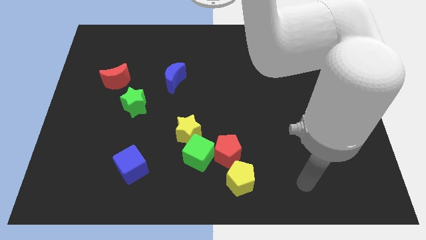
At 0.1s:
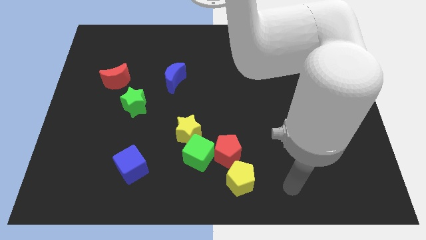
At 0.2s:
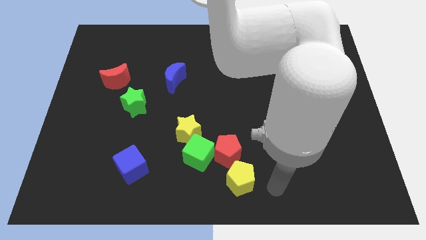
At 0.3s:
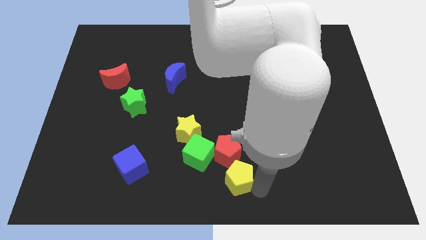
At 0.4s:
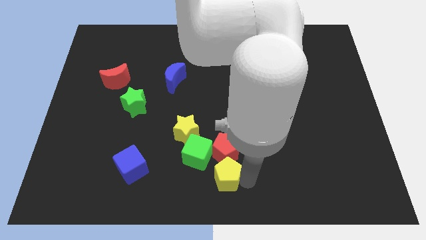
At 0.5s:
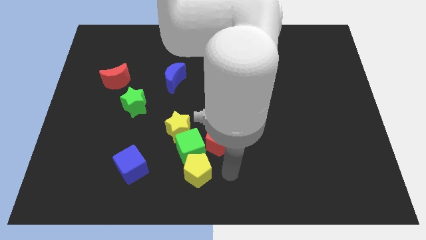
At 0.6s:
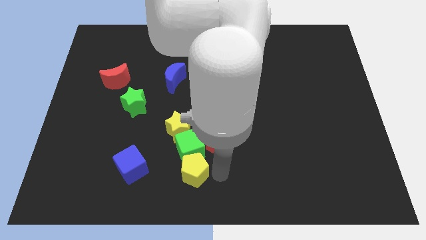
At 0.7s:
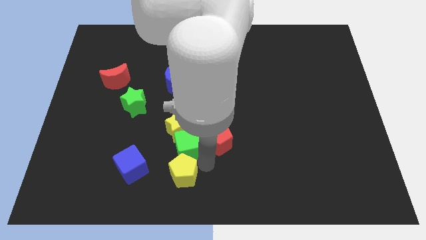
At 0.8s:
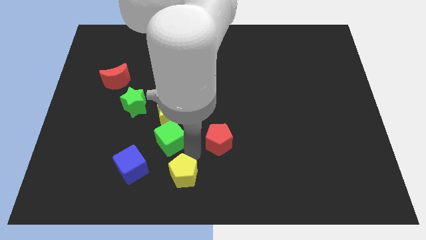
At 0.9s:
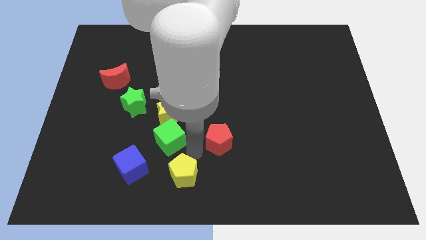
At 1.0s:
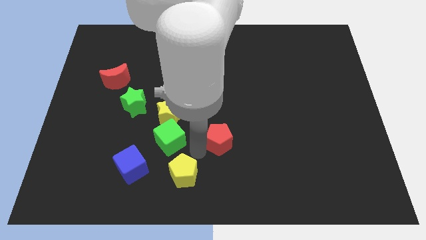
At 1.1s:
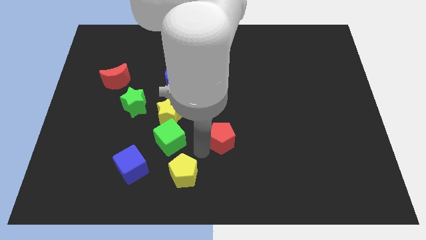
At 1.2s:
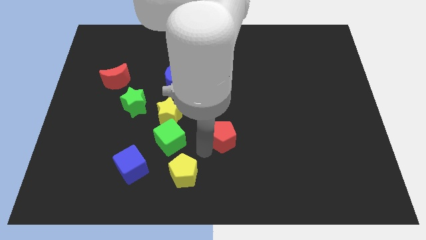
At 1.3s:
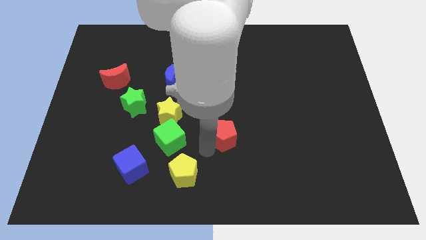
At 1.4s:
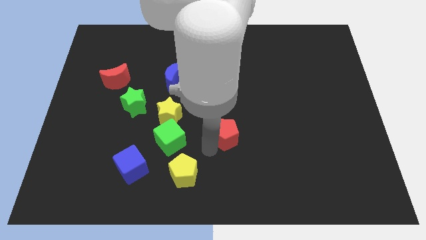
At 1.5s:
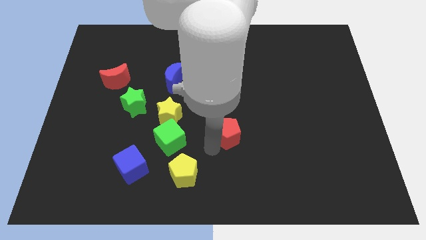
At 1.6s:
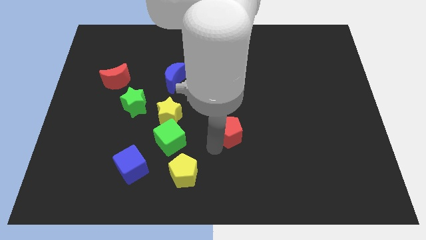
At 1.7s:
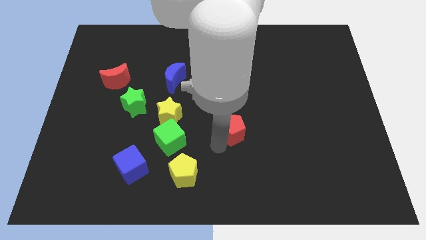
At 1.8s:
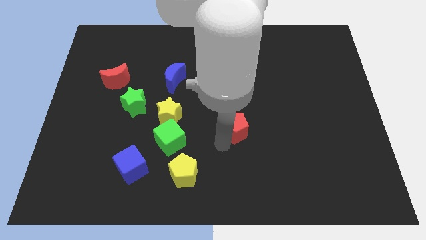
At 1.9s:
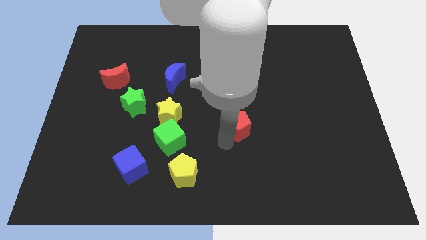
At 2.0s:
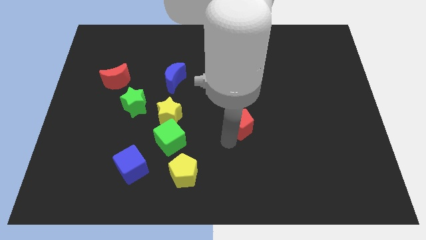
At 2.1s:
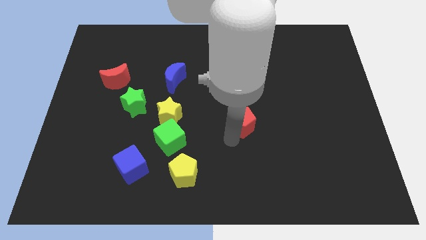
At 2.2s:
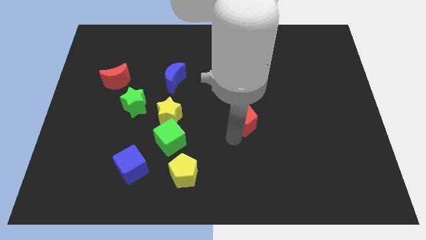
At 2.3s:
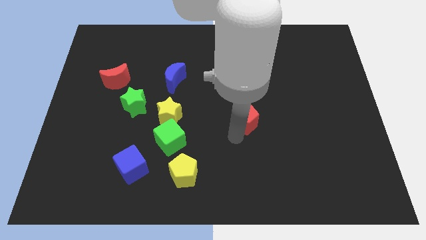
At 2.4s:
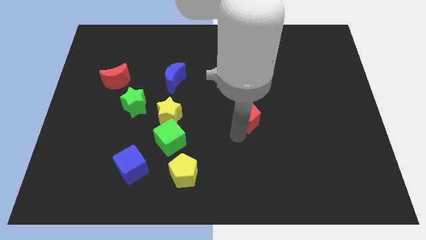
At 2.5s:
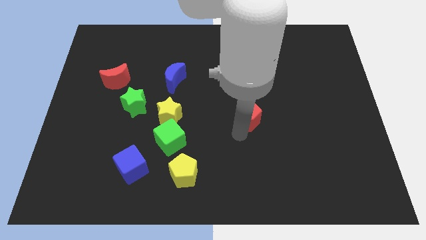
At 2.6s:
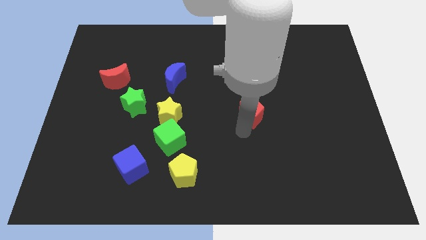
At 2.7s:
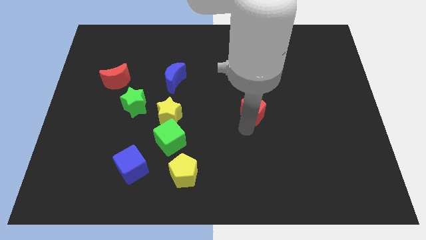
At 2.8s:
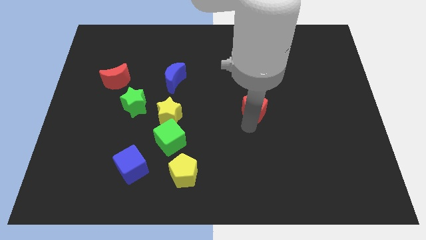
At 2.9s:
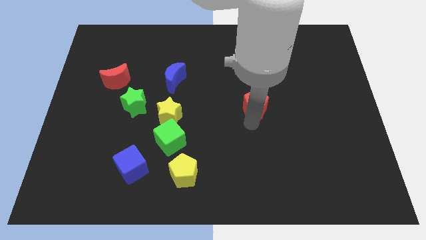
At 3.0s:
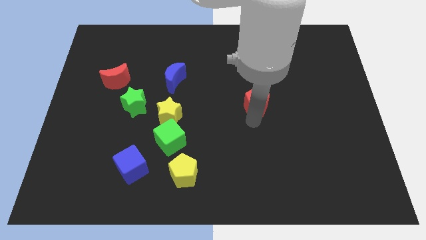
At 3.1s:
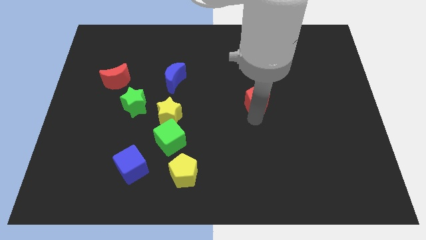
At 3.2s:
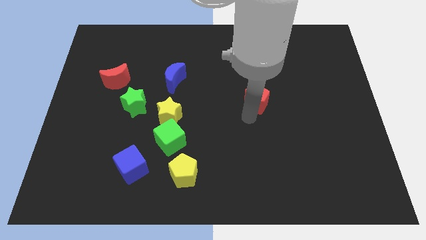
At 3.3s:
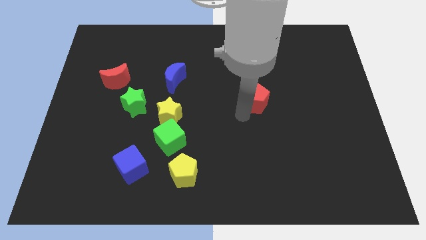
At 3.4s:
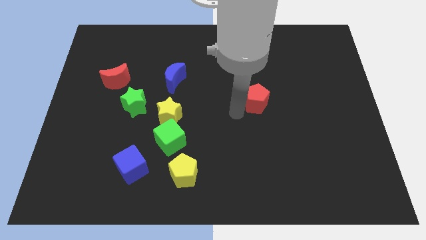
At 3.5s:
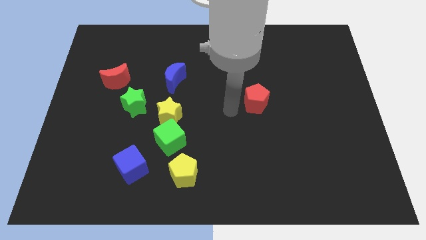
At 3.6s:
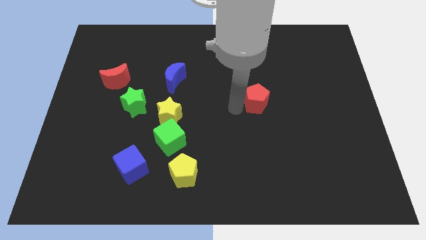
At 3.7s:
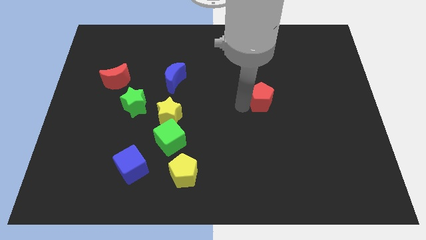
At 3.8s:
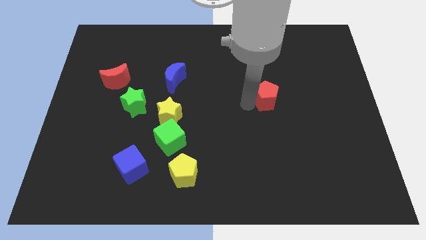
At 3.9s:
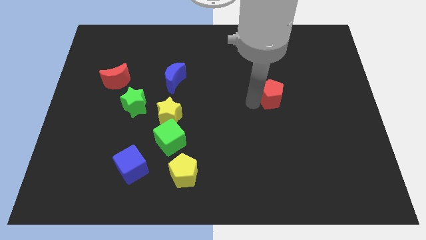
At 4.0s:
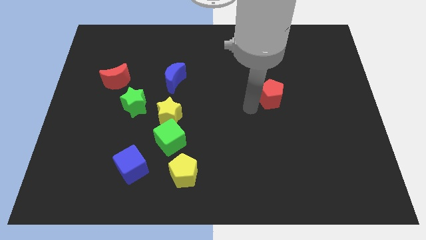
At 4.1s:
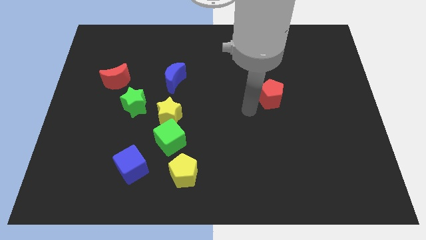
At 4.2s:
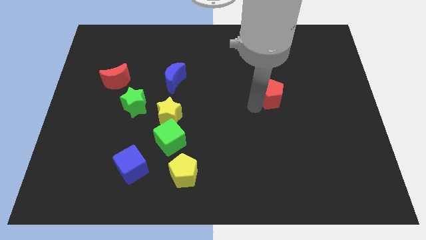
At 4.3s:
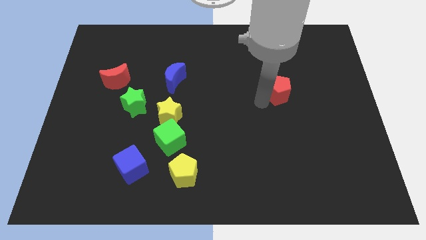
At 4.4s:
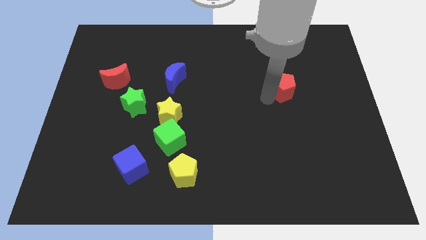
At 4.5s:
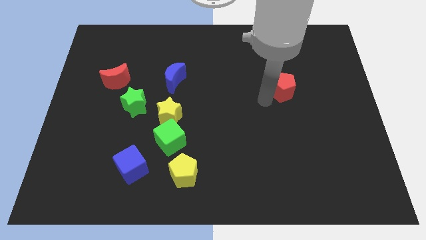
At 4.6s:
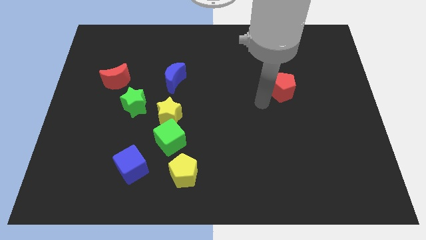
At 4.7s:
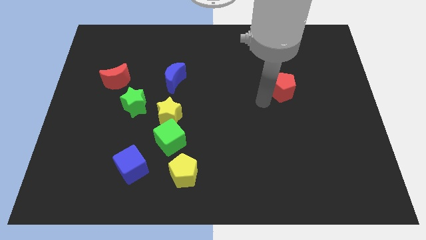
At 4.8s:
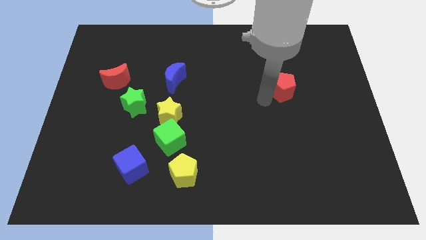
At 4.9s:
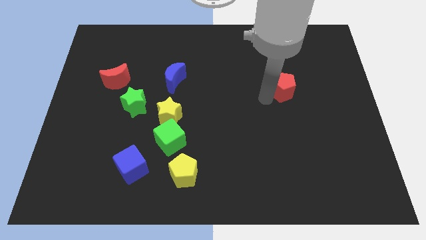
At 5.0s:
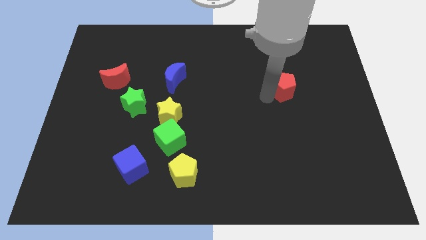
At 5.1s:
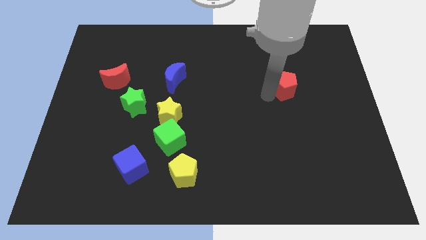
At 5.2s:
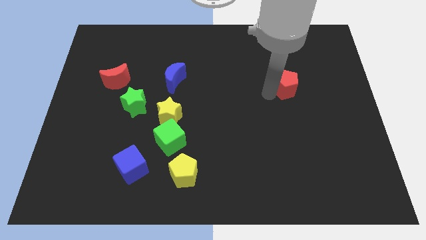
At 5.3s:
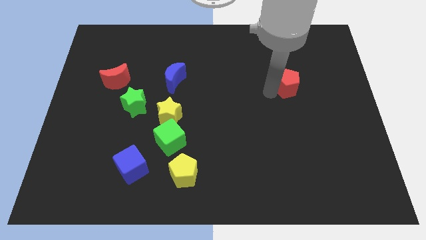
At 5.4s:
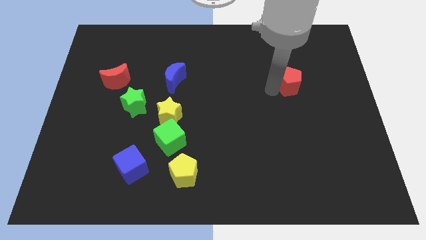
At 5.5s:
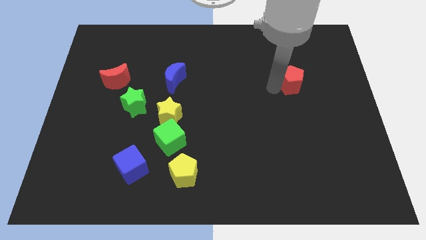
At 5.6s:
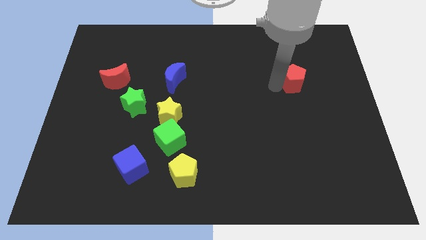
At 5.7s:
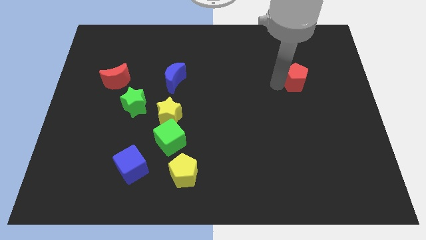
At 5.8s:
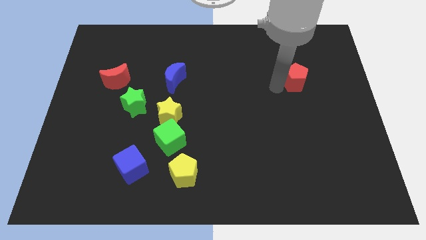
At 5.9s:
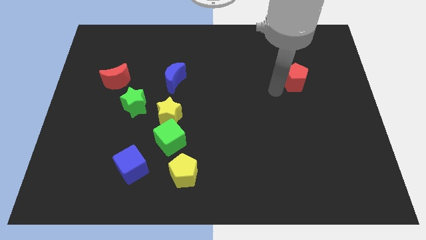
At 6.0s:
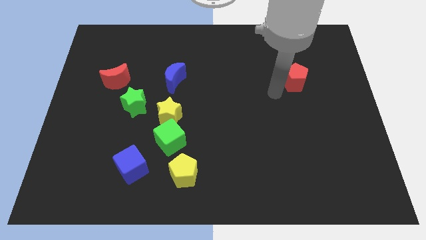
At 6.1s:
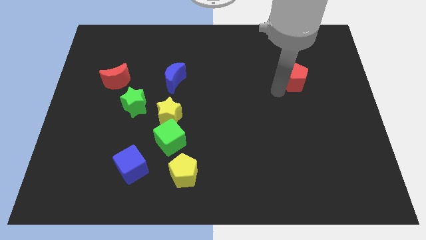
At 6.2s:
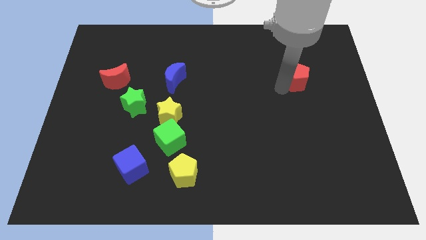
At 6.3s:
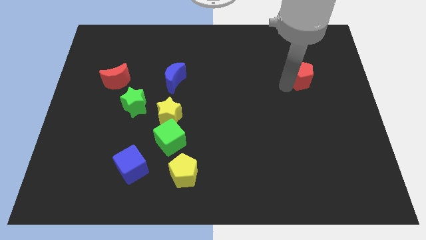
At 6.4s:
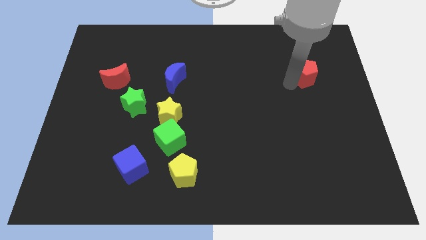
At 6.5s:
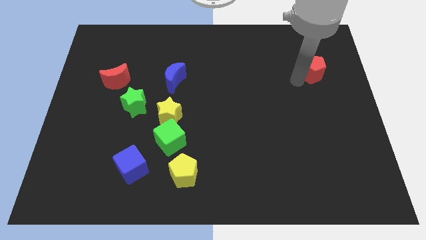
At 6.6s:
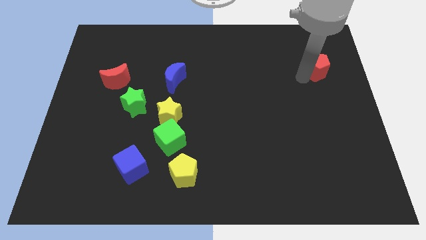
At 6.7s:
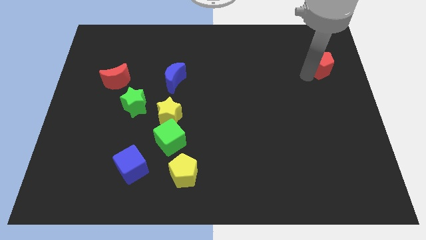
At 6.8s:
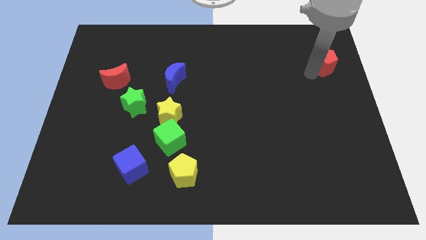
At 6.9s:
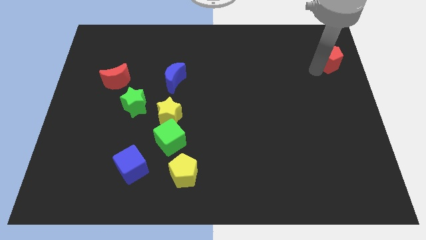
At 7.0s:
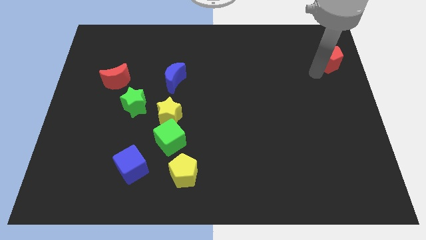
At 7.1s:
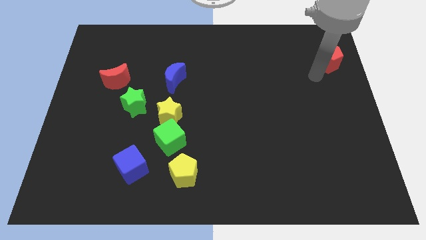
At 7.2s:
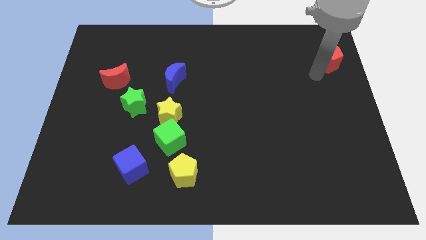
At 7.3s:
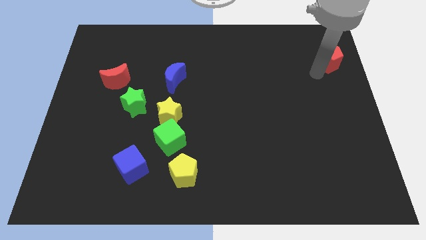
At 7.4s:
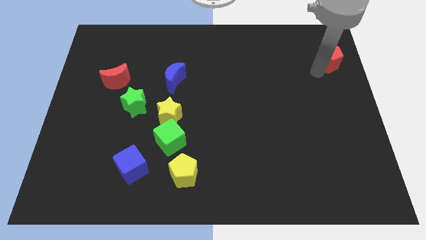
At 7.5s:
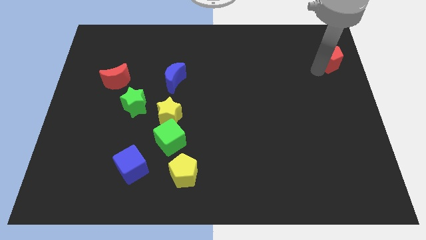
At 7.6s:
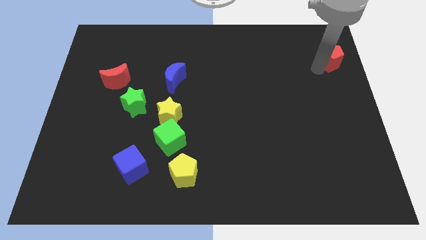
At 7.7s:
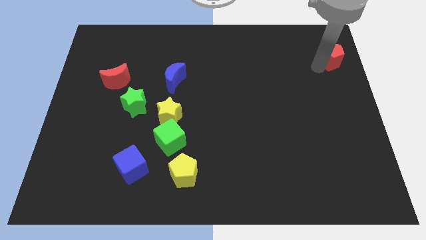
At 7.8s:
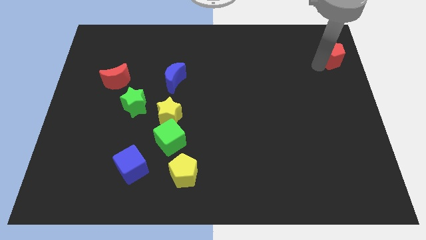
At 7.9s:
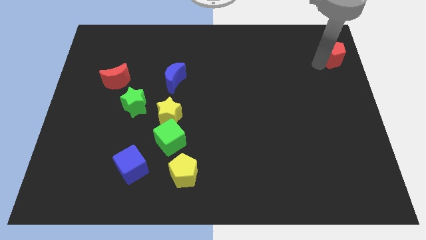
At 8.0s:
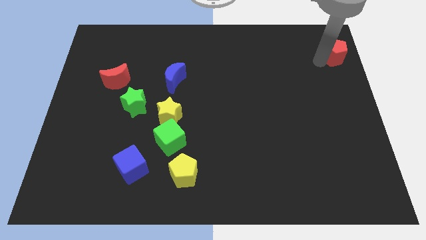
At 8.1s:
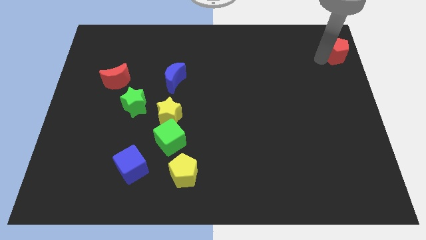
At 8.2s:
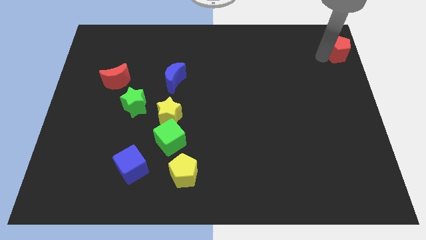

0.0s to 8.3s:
move the red pentagon to the top right corner
